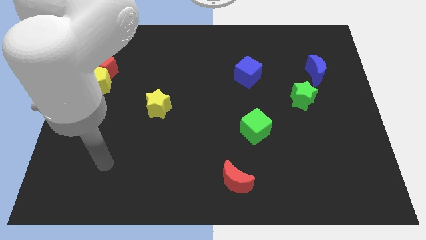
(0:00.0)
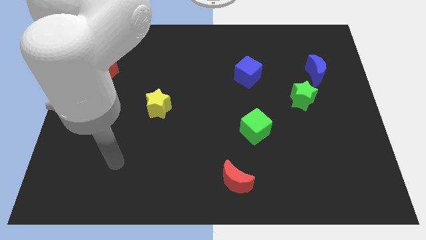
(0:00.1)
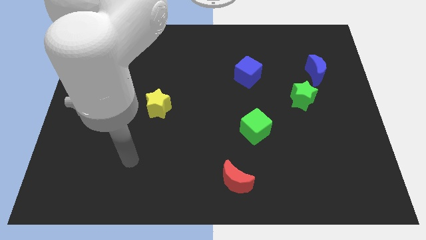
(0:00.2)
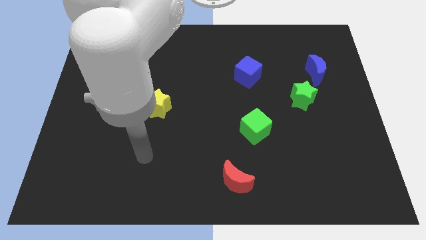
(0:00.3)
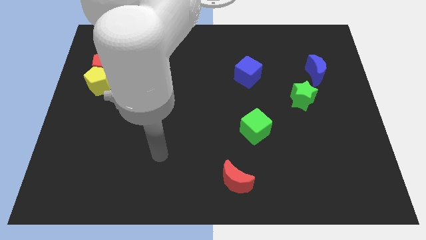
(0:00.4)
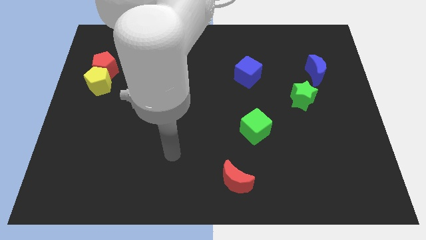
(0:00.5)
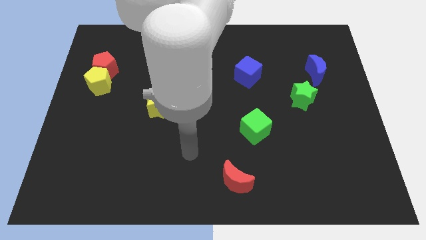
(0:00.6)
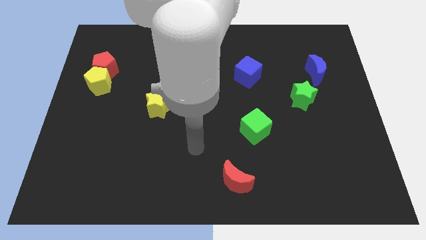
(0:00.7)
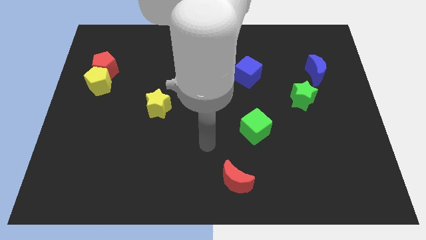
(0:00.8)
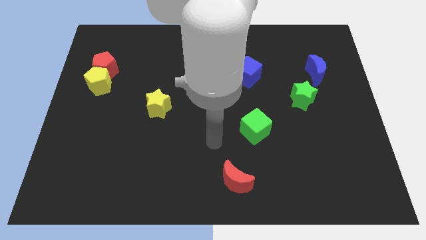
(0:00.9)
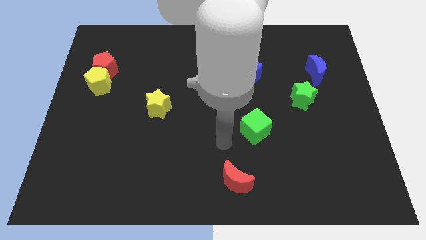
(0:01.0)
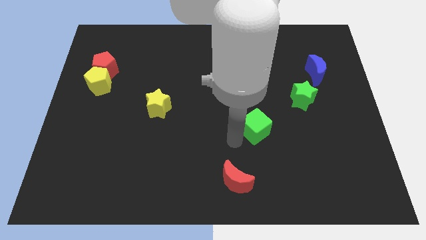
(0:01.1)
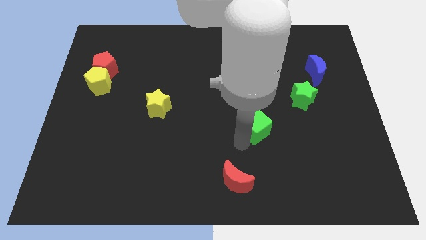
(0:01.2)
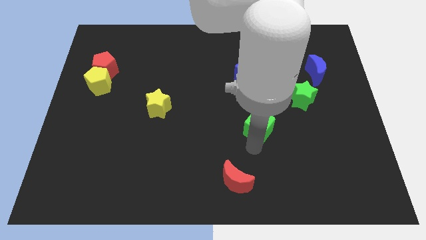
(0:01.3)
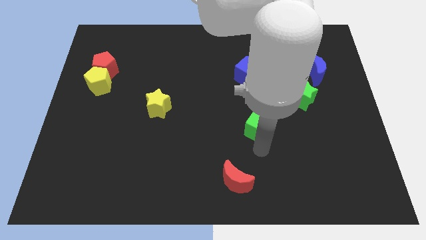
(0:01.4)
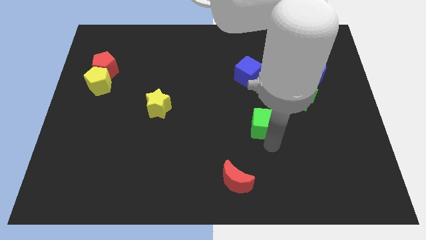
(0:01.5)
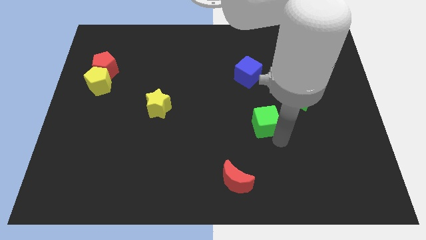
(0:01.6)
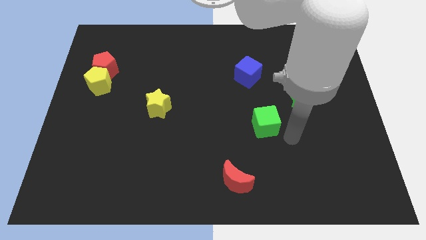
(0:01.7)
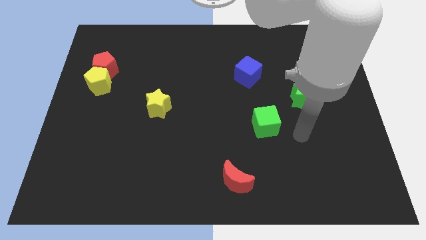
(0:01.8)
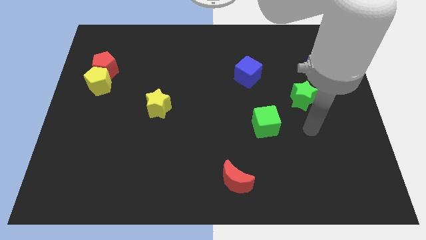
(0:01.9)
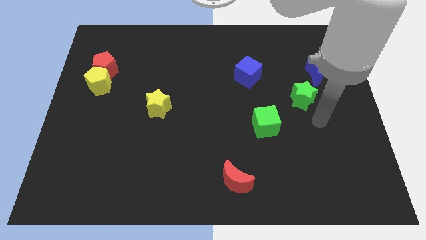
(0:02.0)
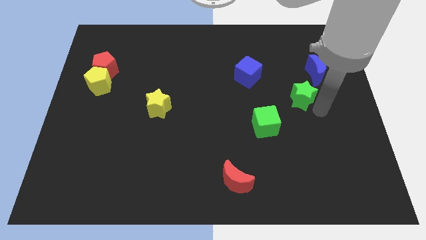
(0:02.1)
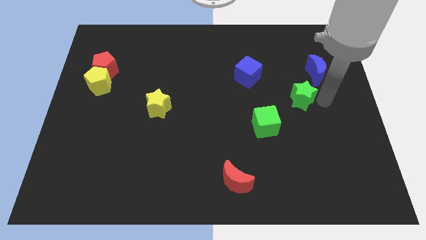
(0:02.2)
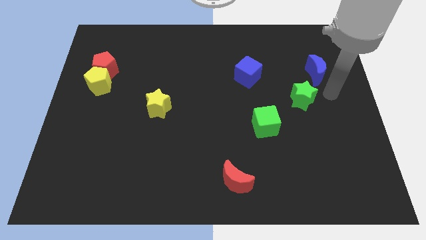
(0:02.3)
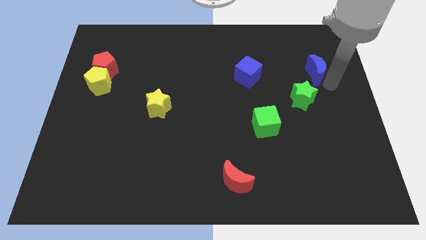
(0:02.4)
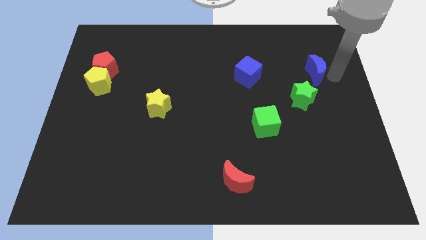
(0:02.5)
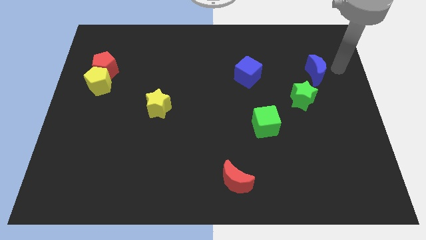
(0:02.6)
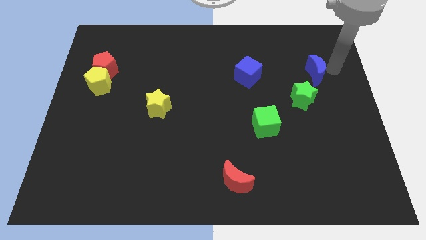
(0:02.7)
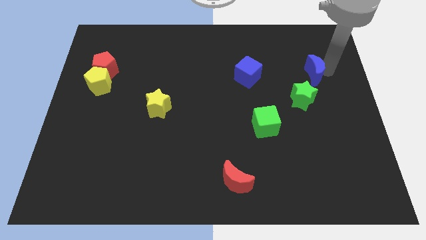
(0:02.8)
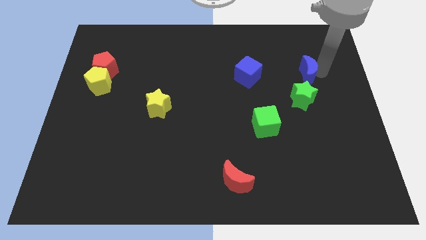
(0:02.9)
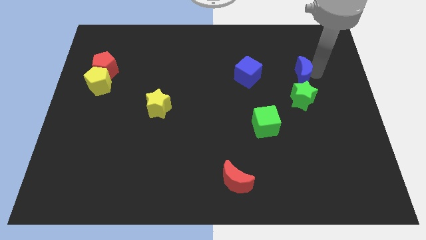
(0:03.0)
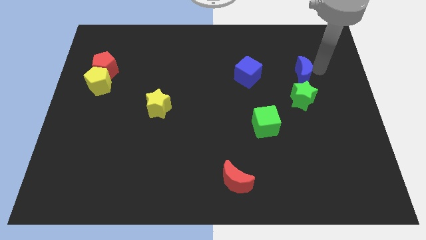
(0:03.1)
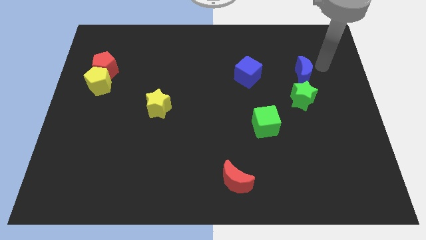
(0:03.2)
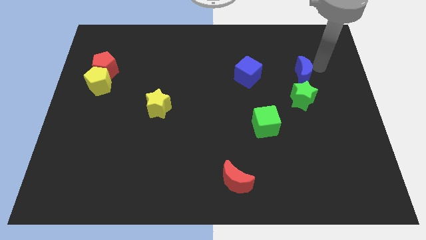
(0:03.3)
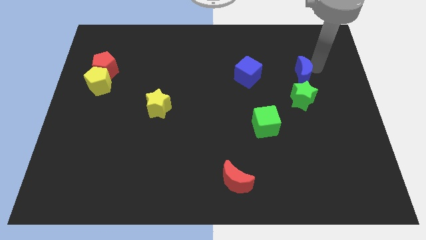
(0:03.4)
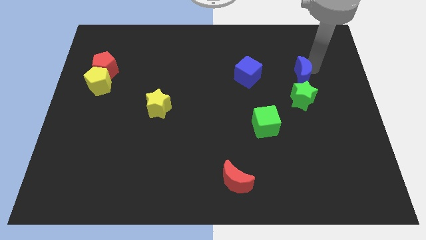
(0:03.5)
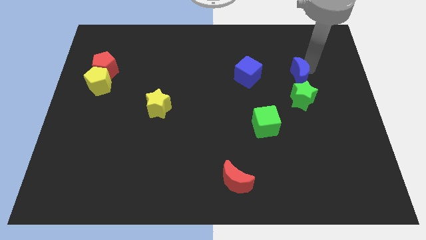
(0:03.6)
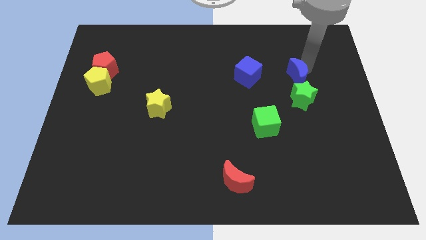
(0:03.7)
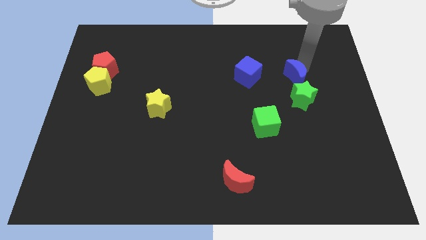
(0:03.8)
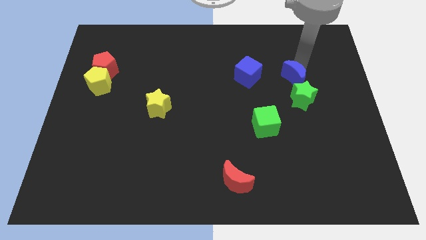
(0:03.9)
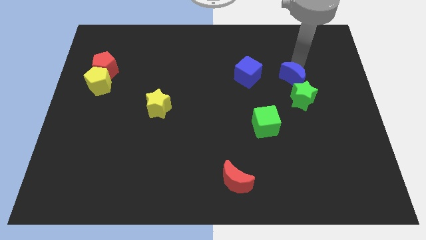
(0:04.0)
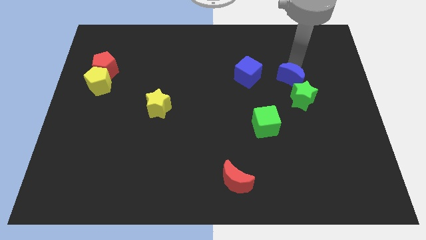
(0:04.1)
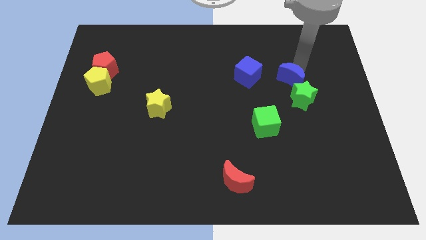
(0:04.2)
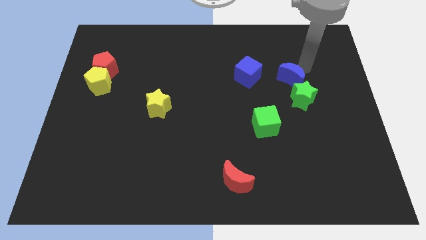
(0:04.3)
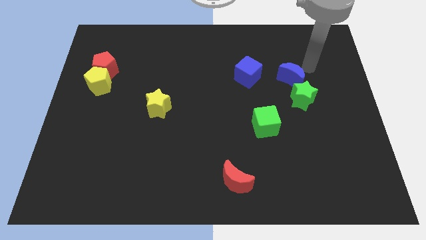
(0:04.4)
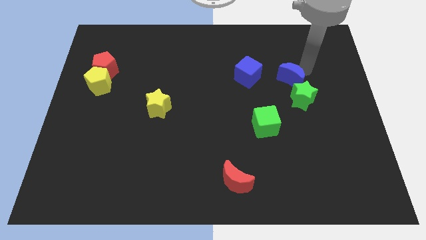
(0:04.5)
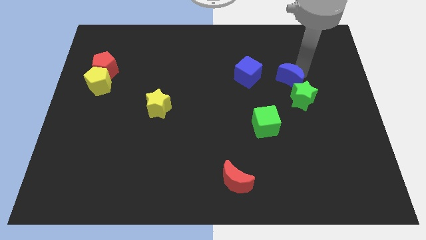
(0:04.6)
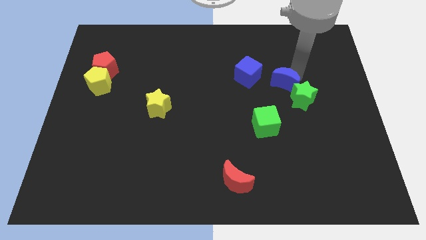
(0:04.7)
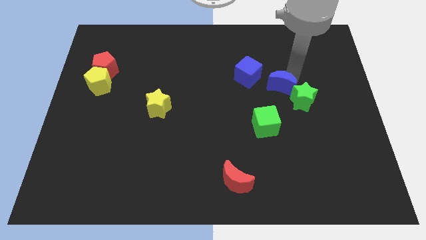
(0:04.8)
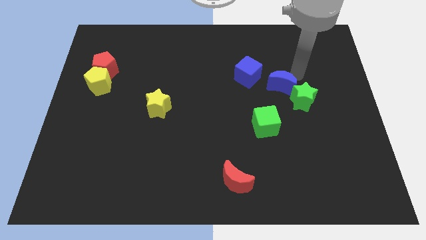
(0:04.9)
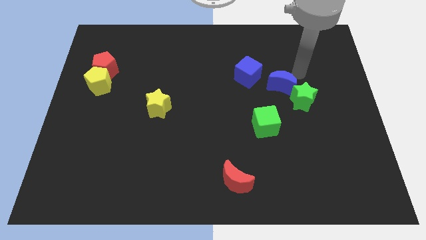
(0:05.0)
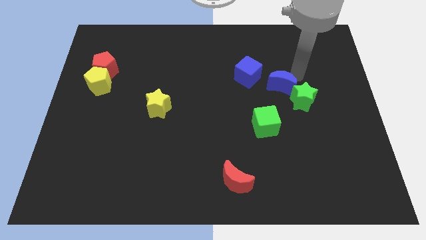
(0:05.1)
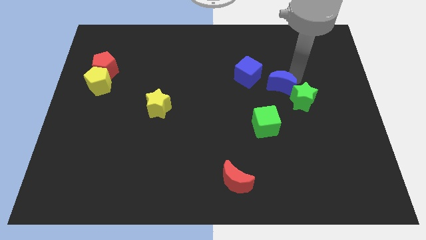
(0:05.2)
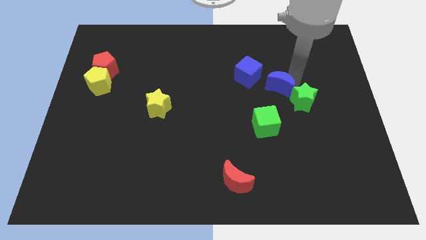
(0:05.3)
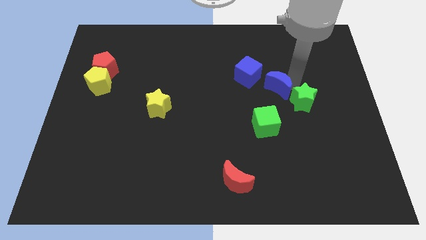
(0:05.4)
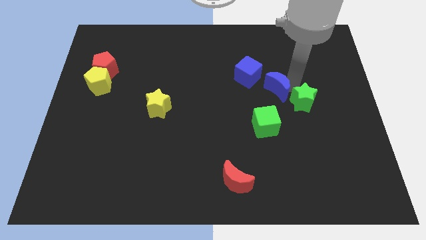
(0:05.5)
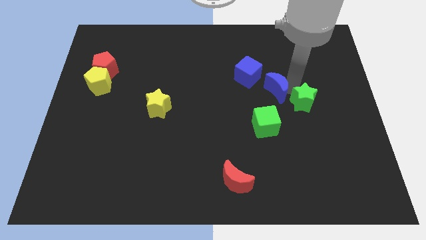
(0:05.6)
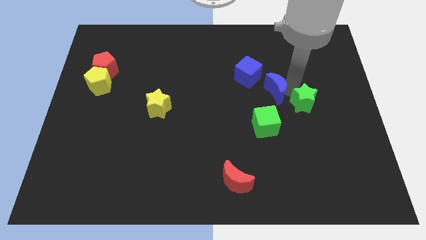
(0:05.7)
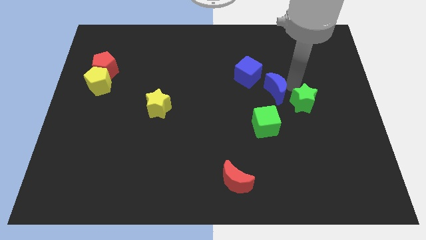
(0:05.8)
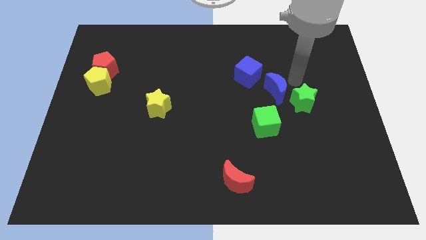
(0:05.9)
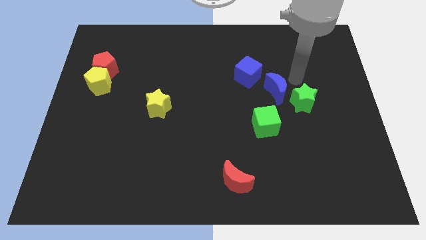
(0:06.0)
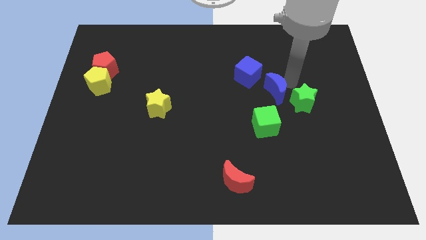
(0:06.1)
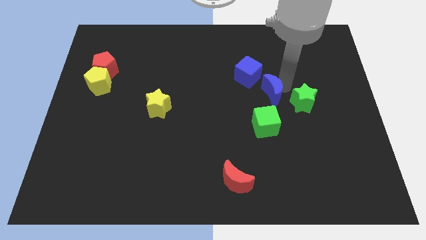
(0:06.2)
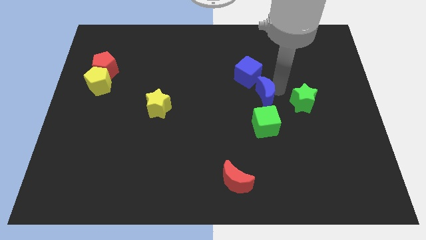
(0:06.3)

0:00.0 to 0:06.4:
put the blue moon below the blue cube

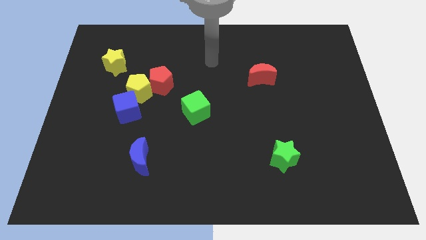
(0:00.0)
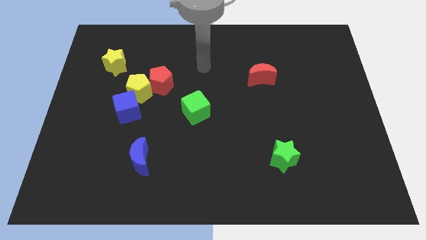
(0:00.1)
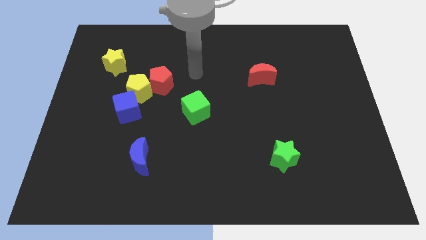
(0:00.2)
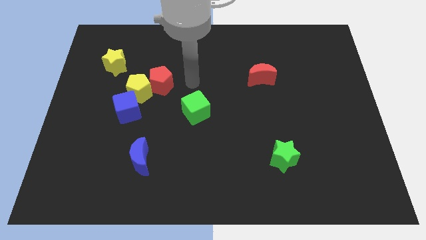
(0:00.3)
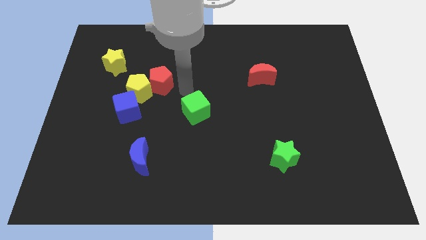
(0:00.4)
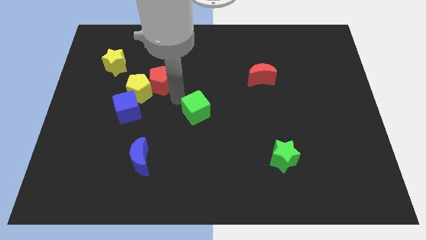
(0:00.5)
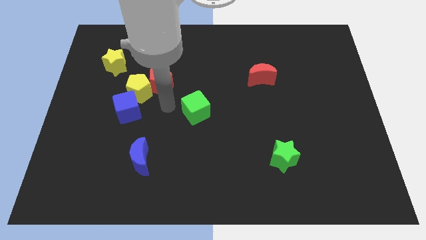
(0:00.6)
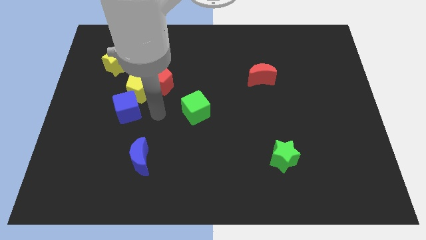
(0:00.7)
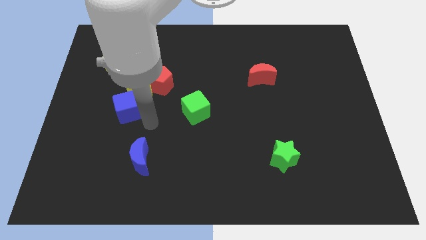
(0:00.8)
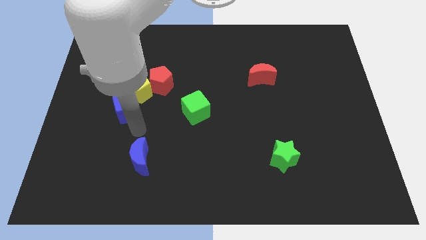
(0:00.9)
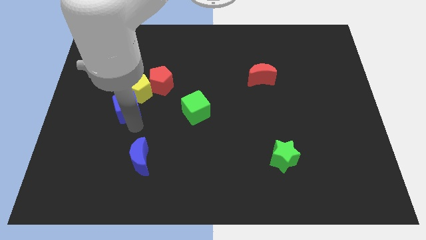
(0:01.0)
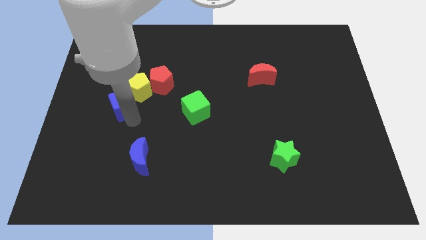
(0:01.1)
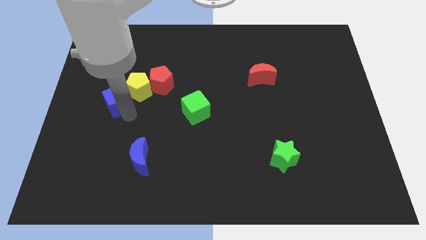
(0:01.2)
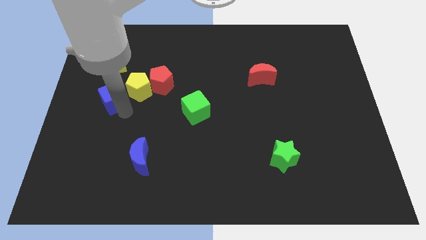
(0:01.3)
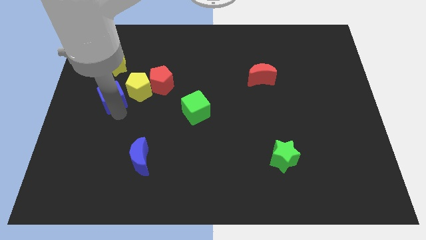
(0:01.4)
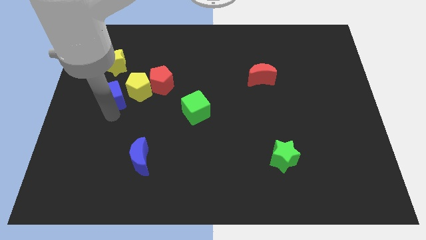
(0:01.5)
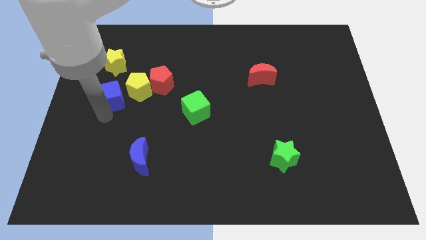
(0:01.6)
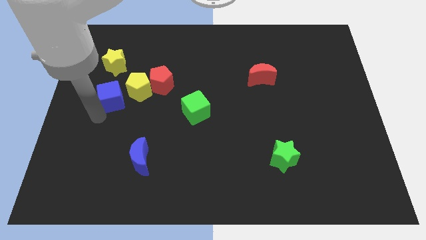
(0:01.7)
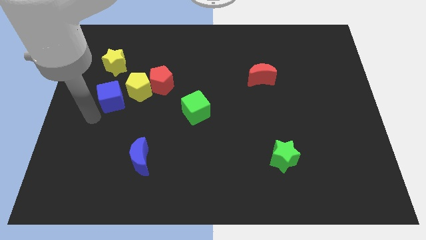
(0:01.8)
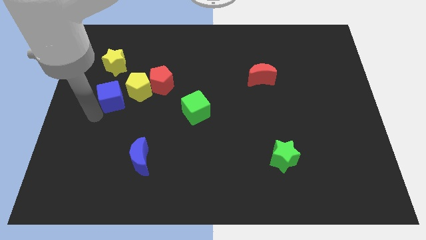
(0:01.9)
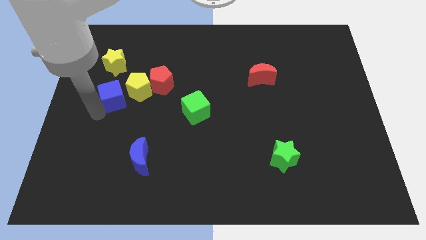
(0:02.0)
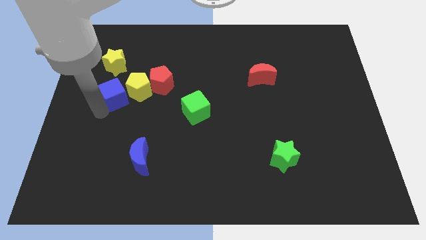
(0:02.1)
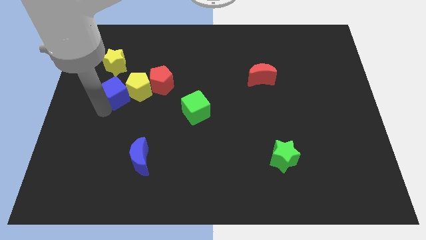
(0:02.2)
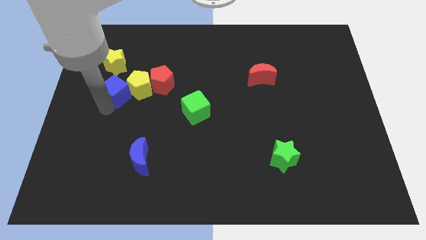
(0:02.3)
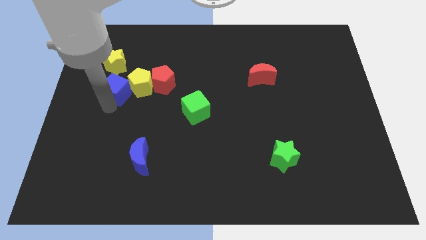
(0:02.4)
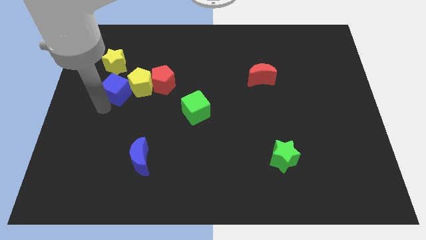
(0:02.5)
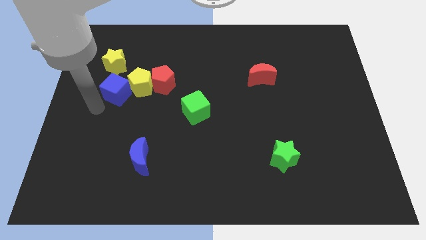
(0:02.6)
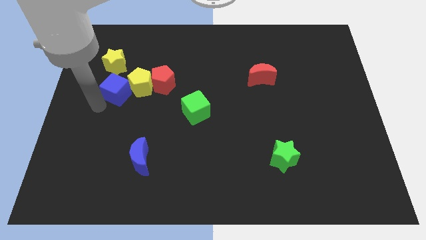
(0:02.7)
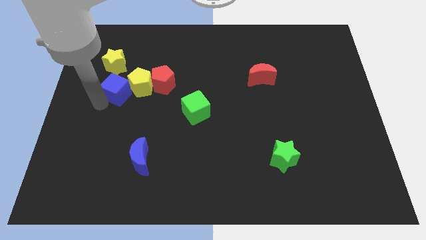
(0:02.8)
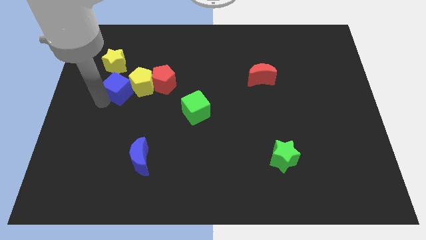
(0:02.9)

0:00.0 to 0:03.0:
slide the blue cube to the bottom right of the yellow star
